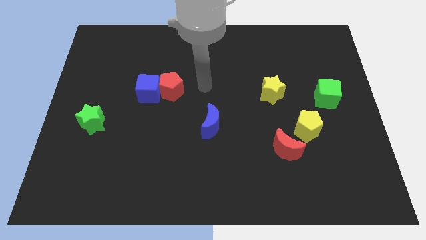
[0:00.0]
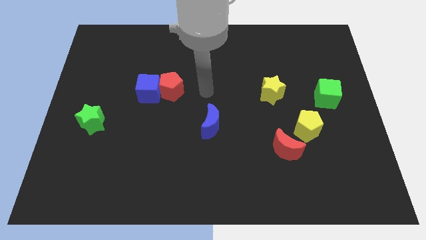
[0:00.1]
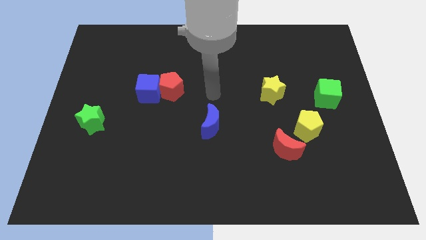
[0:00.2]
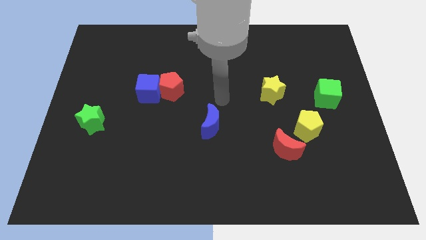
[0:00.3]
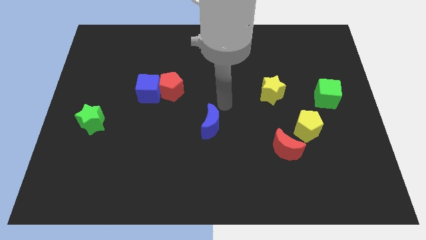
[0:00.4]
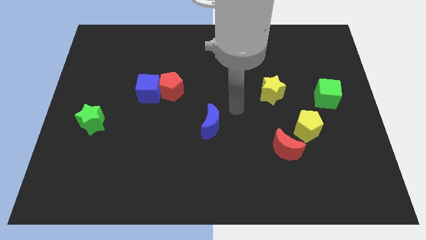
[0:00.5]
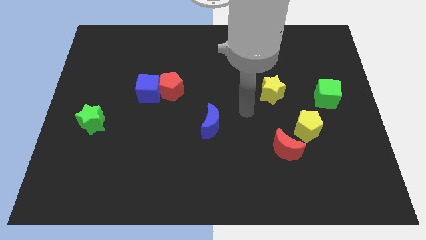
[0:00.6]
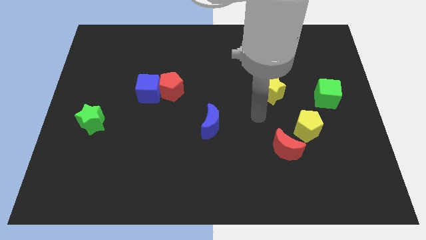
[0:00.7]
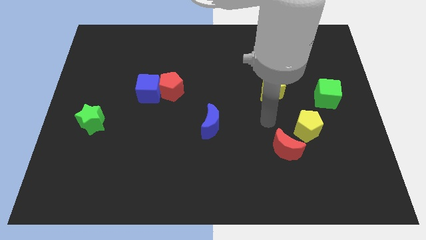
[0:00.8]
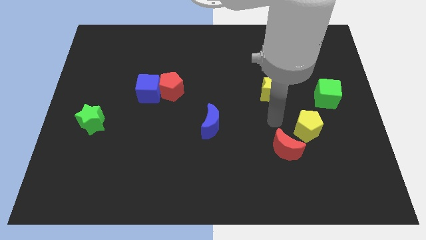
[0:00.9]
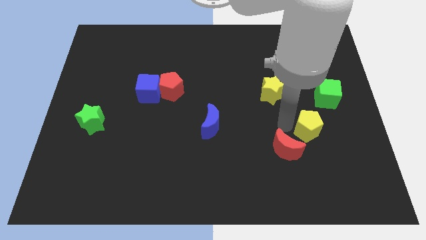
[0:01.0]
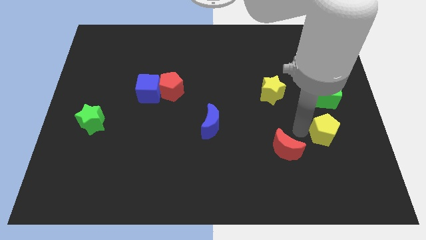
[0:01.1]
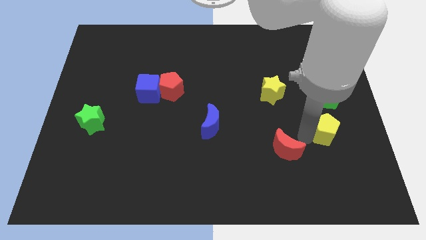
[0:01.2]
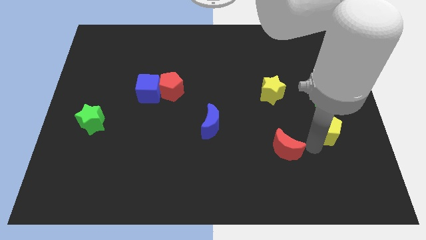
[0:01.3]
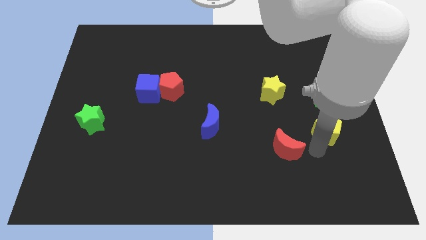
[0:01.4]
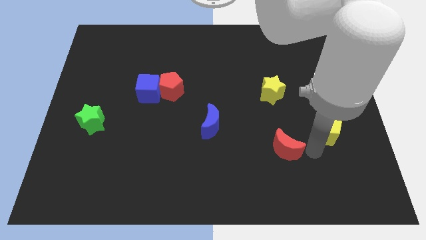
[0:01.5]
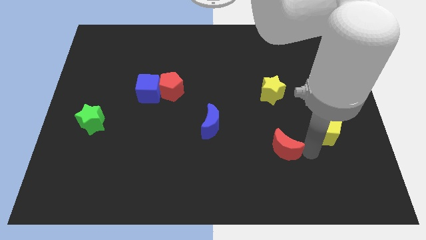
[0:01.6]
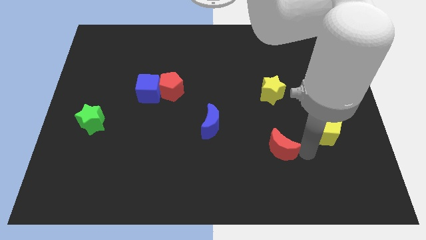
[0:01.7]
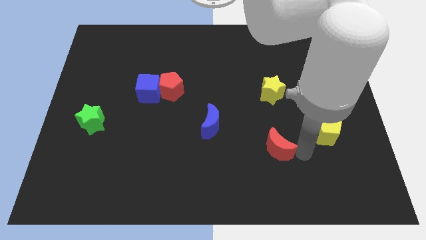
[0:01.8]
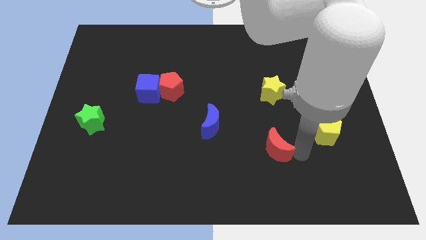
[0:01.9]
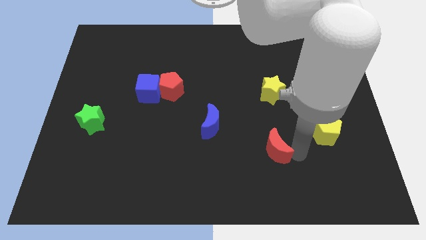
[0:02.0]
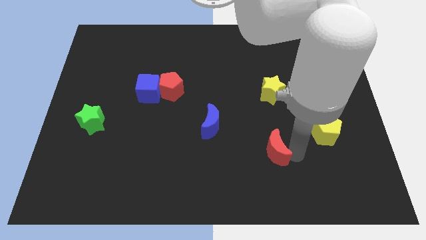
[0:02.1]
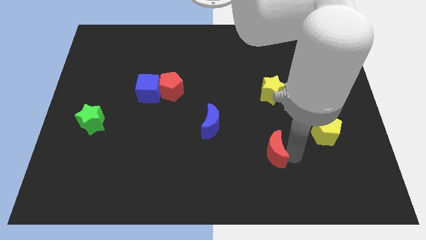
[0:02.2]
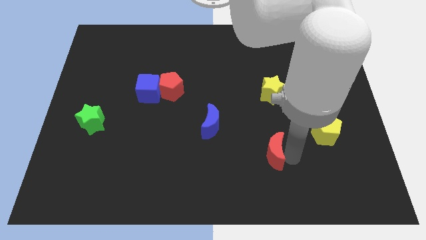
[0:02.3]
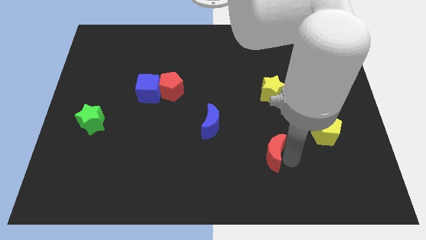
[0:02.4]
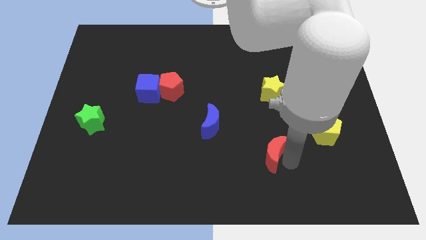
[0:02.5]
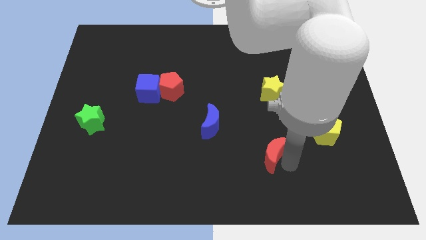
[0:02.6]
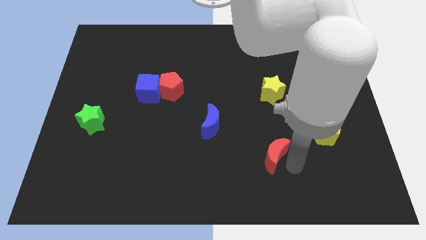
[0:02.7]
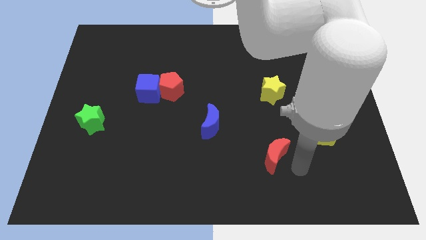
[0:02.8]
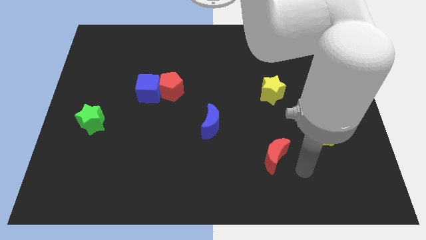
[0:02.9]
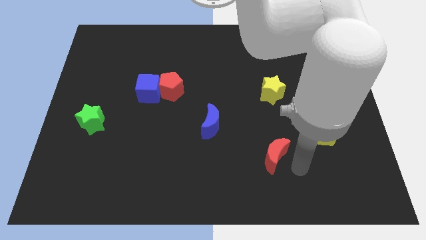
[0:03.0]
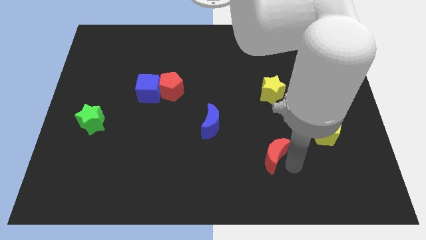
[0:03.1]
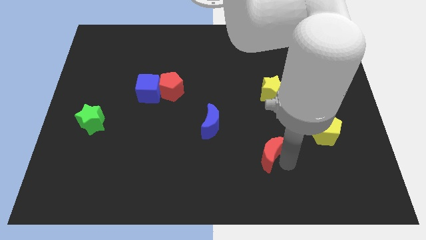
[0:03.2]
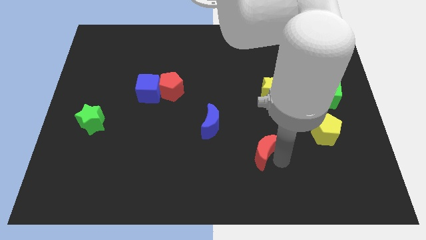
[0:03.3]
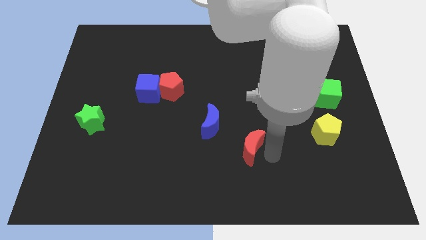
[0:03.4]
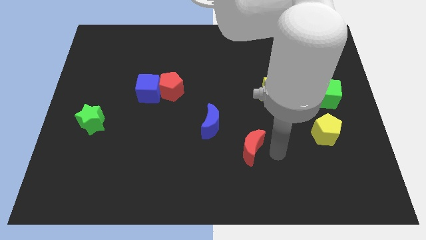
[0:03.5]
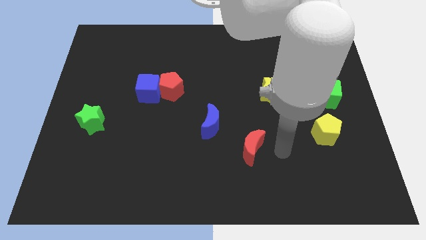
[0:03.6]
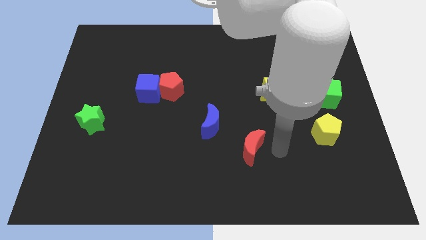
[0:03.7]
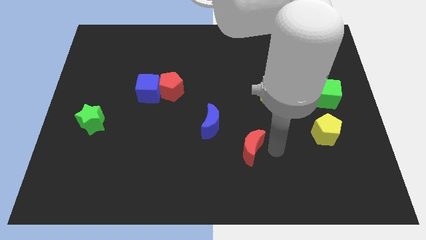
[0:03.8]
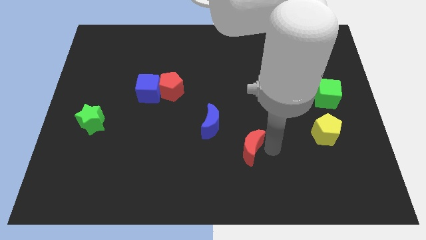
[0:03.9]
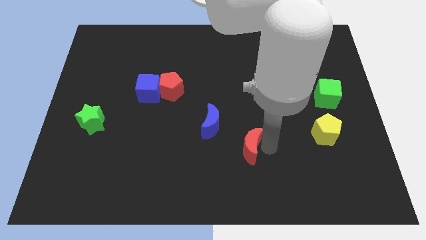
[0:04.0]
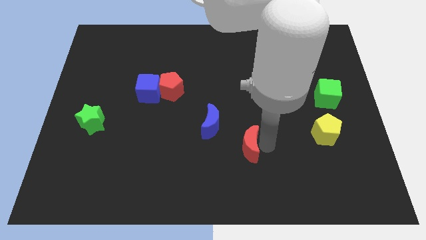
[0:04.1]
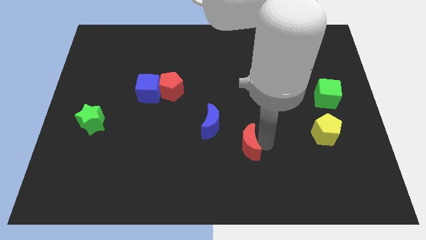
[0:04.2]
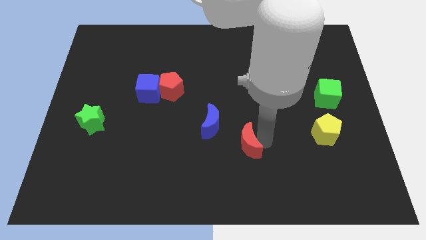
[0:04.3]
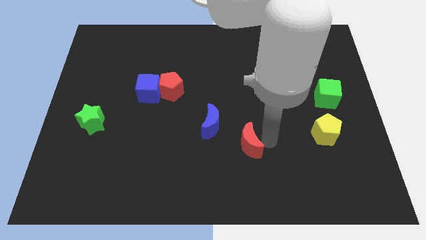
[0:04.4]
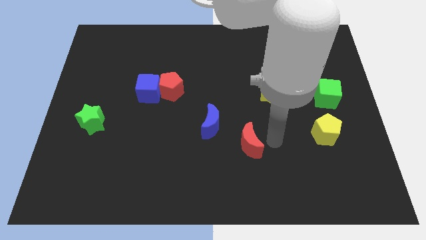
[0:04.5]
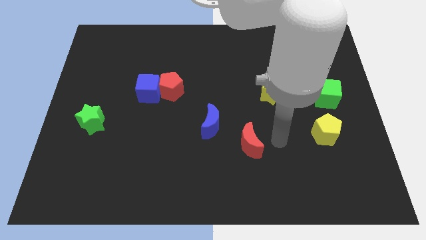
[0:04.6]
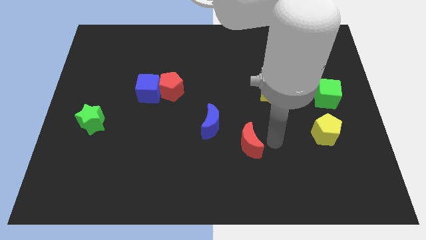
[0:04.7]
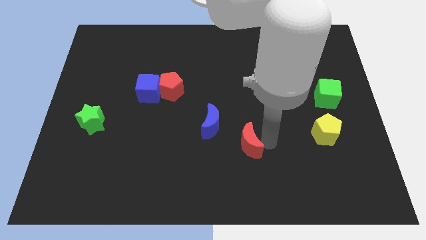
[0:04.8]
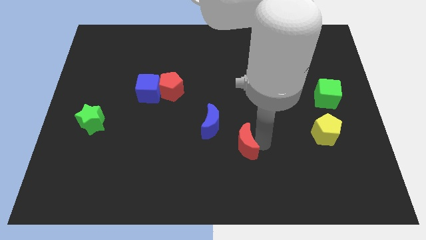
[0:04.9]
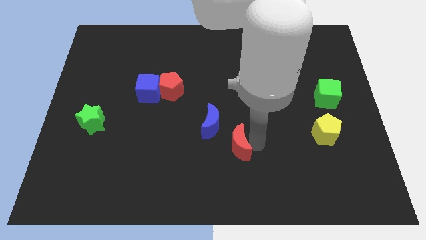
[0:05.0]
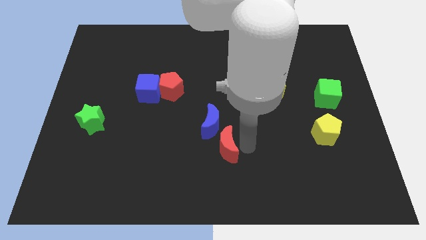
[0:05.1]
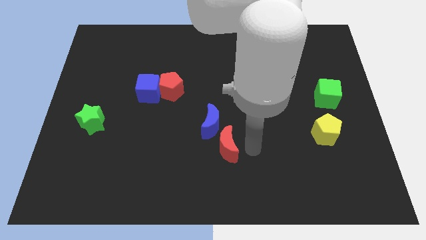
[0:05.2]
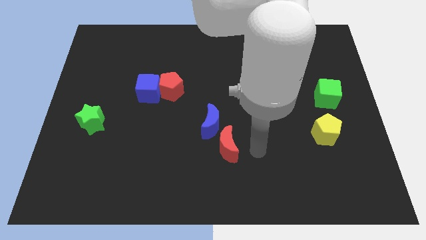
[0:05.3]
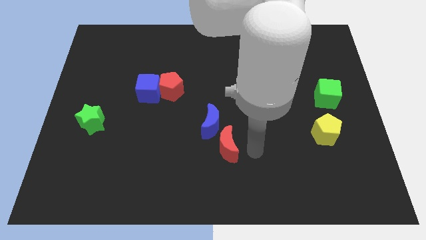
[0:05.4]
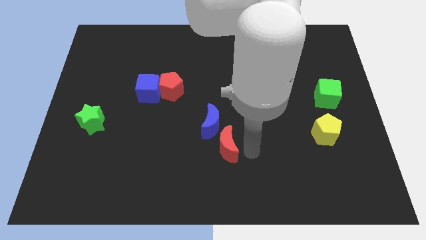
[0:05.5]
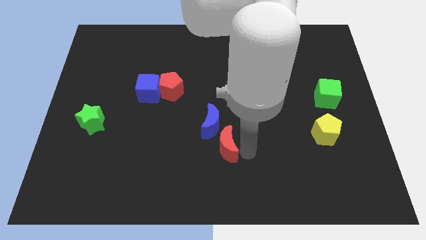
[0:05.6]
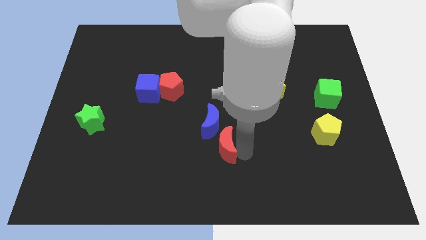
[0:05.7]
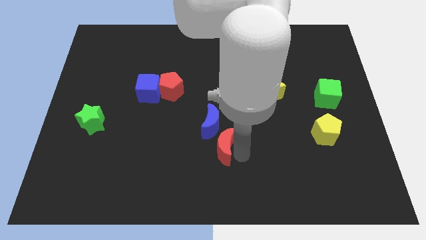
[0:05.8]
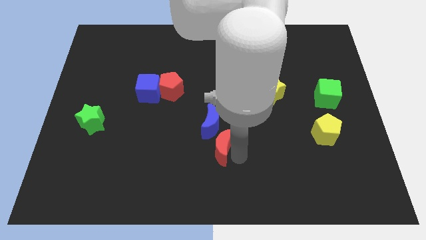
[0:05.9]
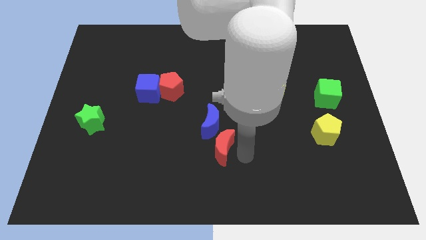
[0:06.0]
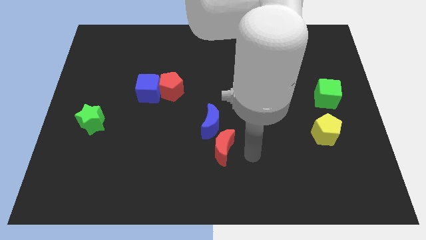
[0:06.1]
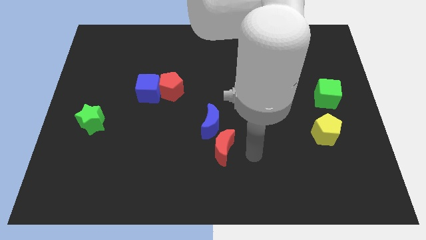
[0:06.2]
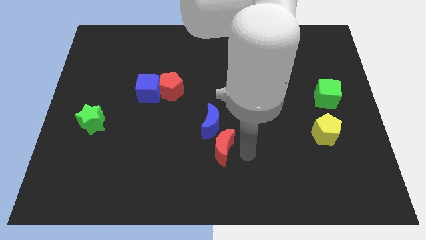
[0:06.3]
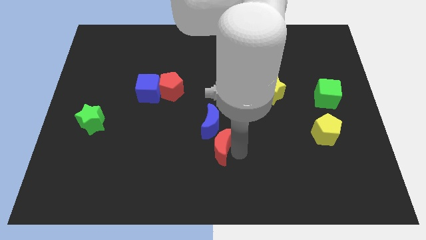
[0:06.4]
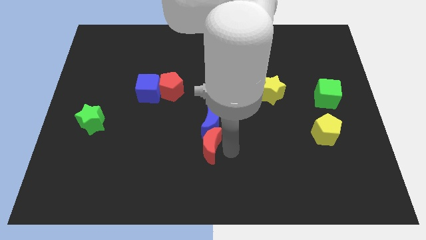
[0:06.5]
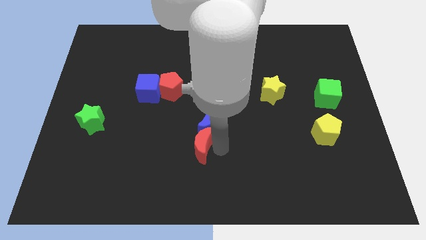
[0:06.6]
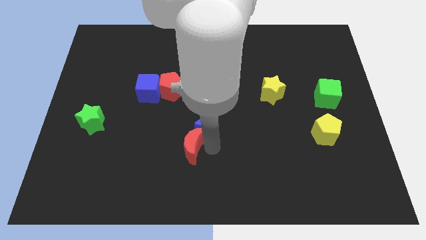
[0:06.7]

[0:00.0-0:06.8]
slide the red moon to the left

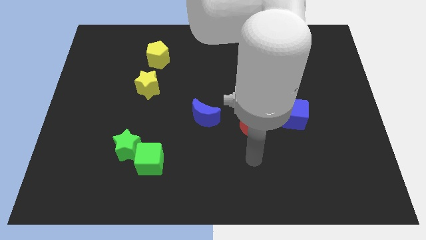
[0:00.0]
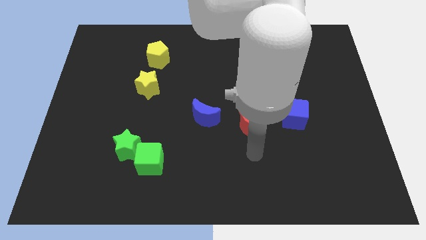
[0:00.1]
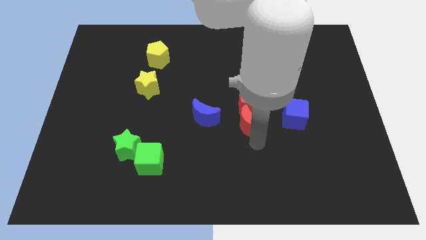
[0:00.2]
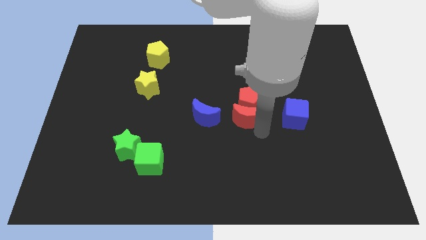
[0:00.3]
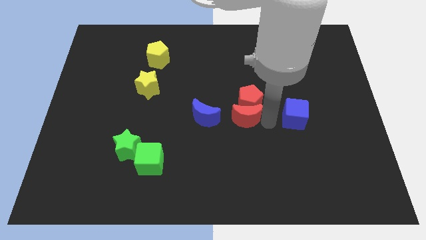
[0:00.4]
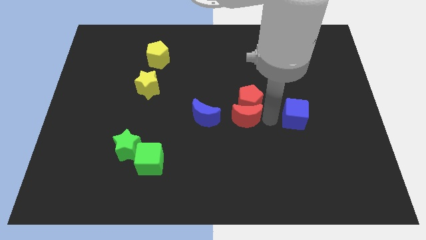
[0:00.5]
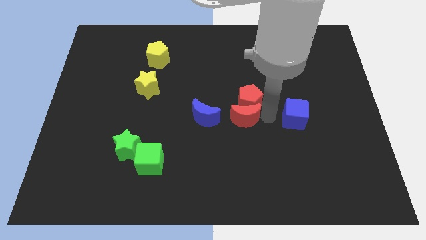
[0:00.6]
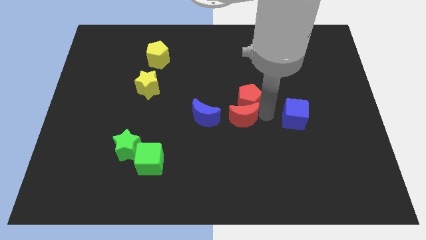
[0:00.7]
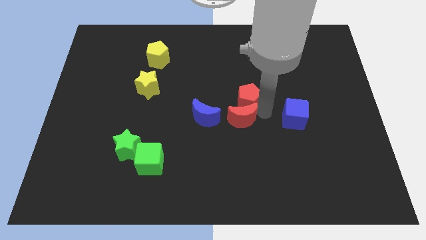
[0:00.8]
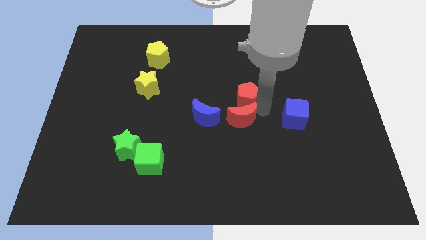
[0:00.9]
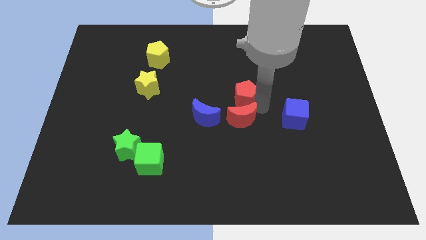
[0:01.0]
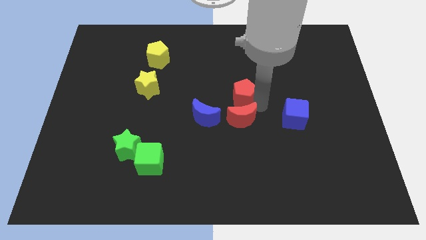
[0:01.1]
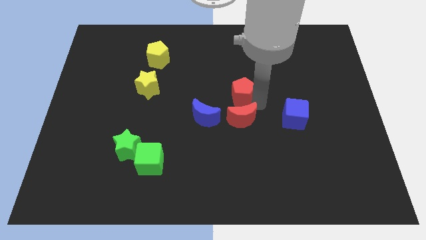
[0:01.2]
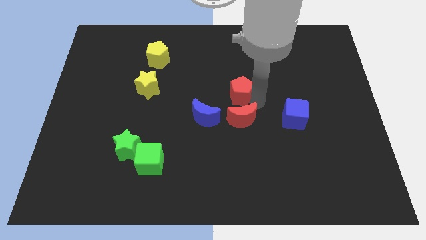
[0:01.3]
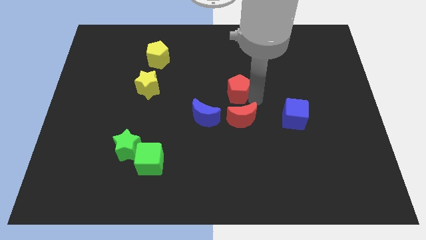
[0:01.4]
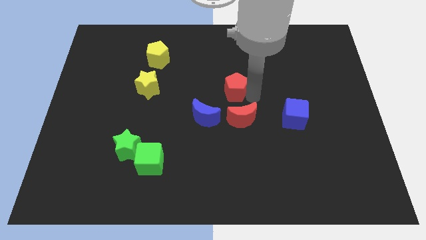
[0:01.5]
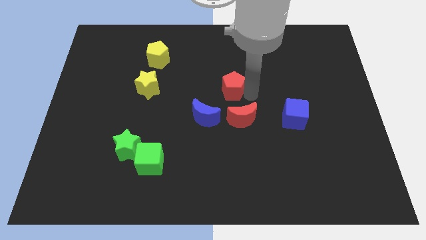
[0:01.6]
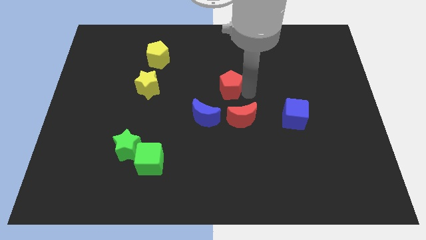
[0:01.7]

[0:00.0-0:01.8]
slide the red pentagon a little bit diagonally upwards and to the left
